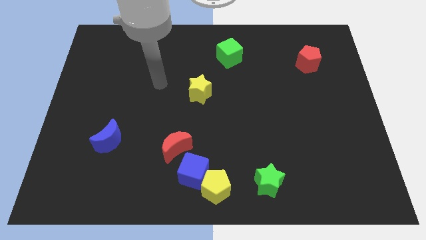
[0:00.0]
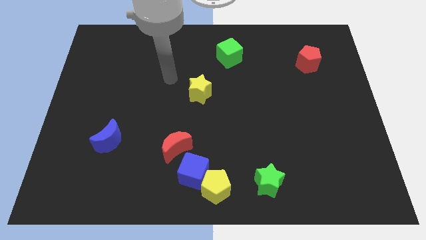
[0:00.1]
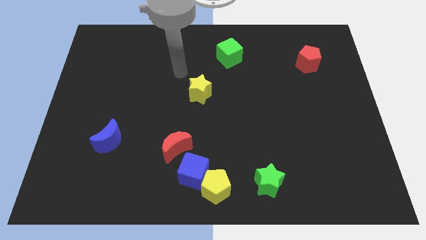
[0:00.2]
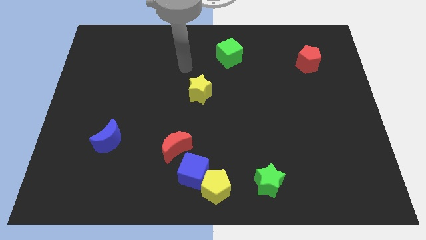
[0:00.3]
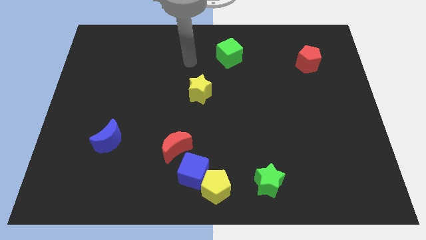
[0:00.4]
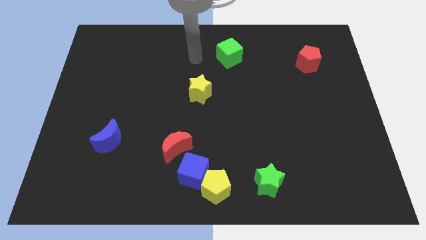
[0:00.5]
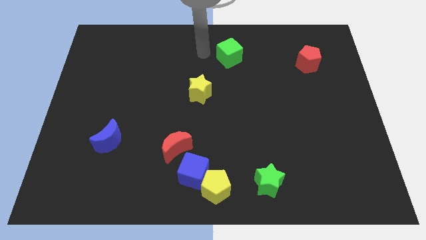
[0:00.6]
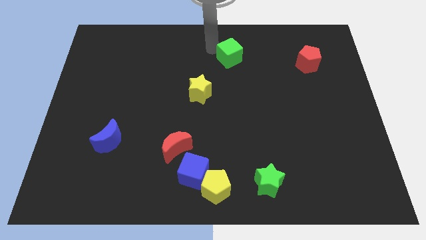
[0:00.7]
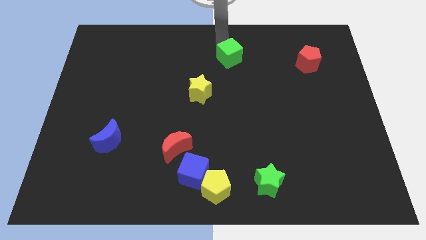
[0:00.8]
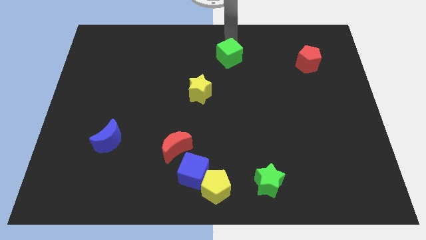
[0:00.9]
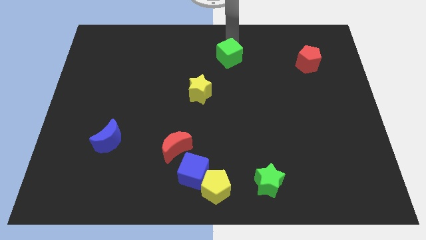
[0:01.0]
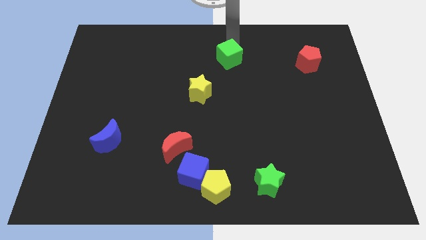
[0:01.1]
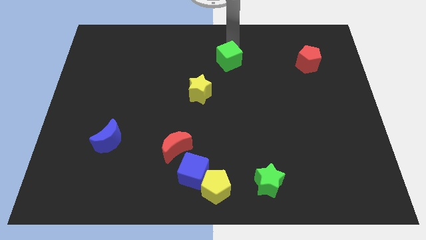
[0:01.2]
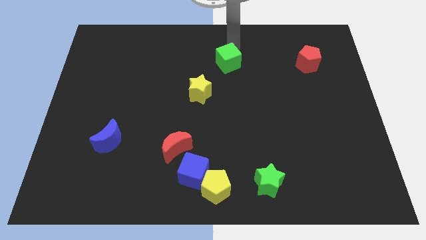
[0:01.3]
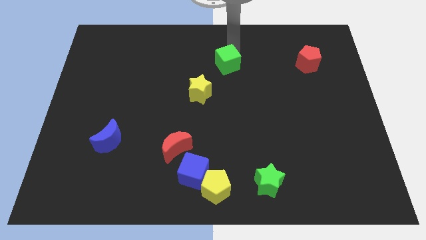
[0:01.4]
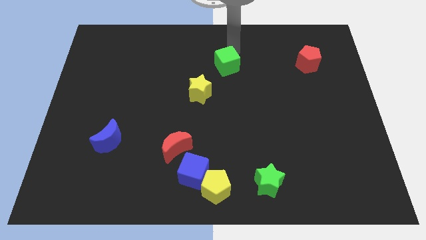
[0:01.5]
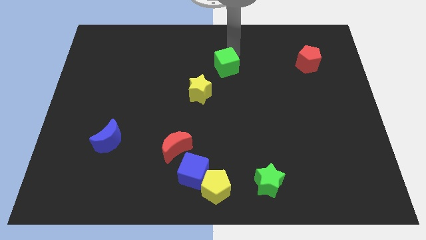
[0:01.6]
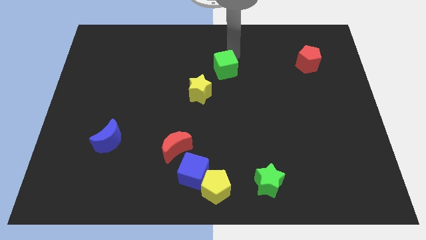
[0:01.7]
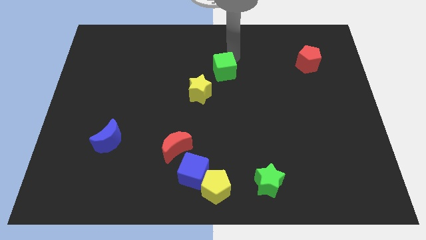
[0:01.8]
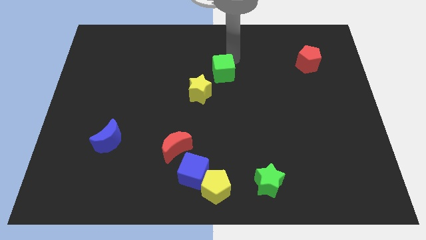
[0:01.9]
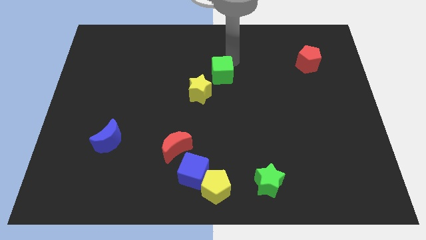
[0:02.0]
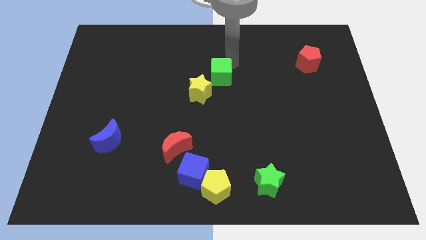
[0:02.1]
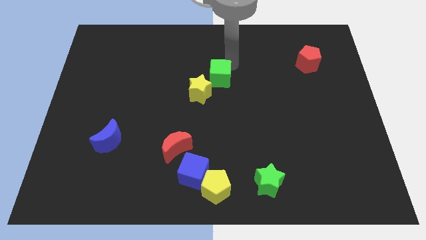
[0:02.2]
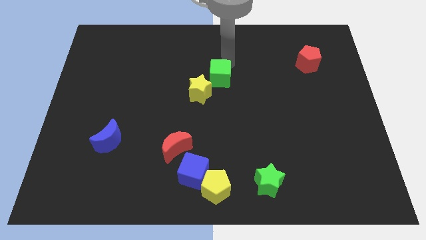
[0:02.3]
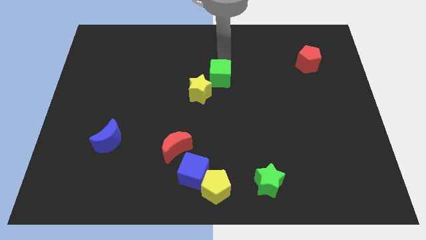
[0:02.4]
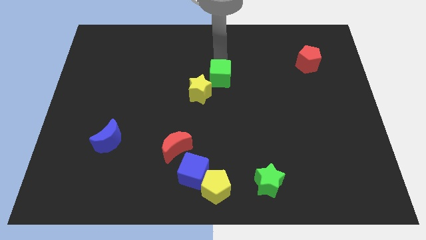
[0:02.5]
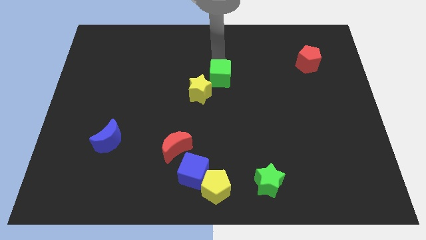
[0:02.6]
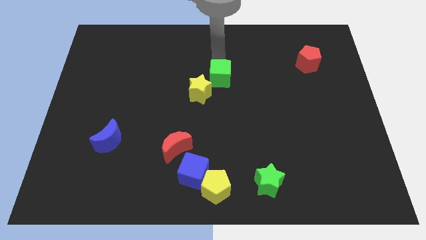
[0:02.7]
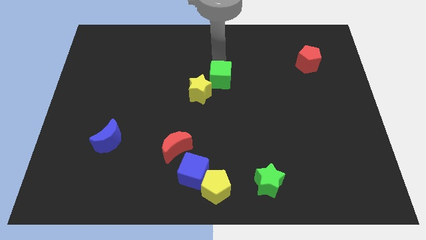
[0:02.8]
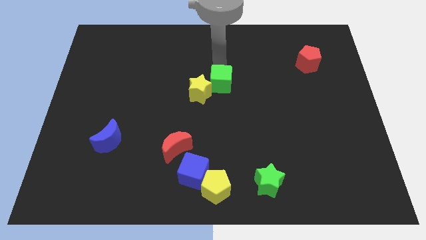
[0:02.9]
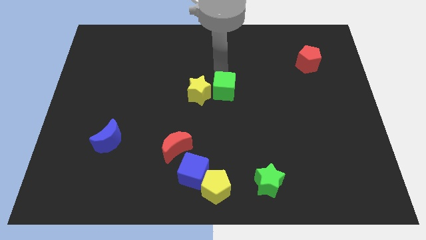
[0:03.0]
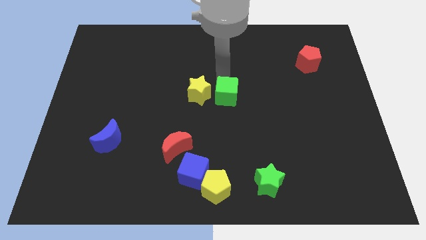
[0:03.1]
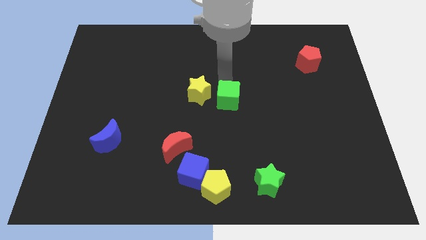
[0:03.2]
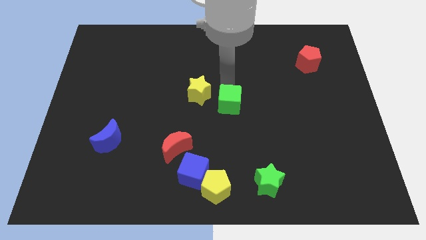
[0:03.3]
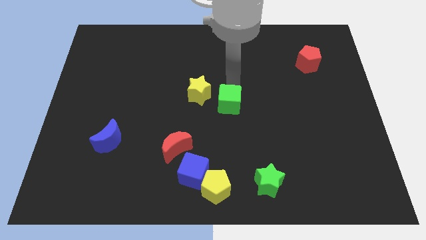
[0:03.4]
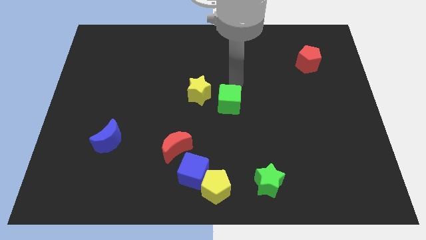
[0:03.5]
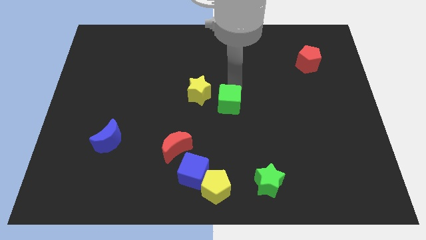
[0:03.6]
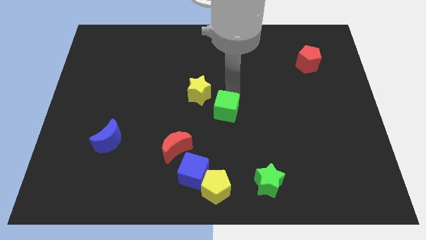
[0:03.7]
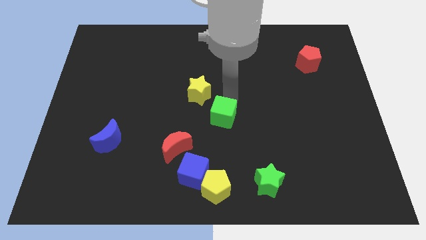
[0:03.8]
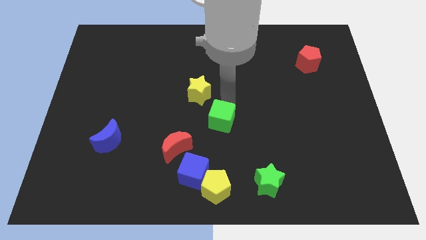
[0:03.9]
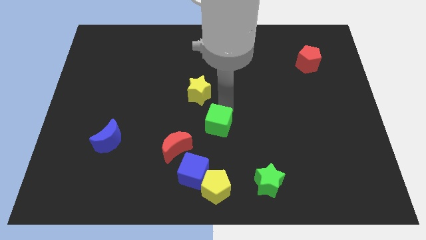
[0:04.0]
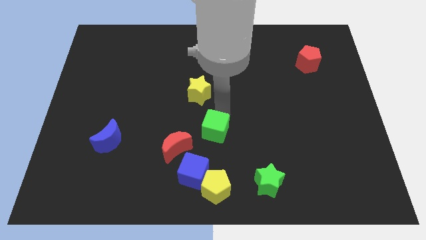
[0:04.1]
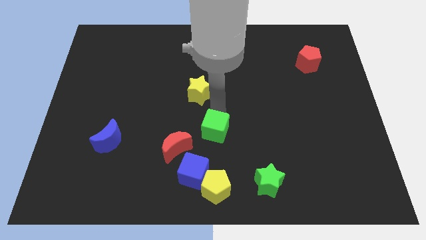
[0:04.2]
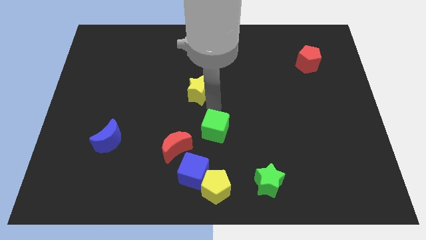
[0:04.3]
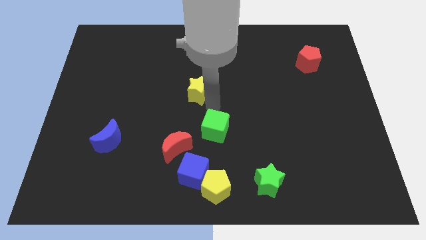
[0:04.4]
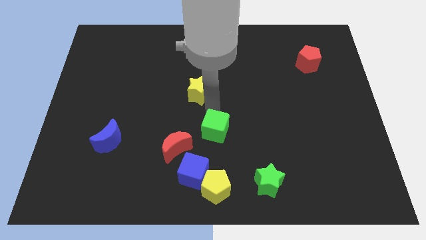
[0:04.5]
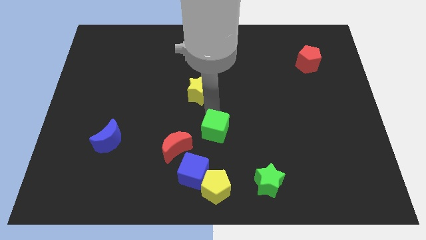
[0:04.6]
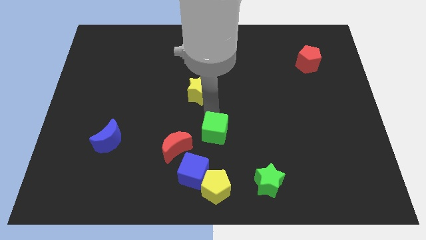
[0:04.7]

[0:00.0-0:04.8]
push the green cube diagonally up and to the right of the blue cube

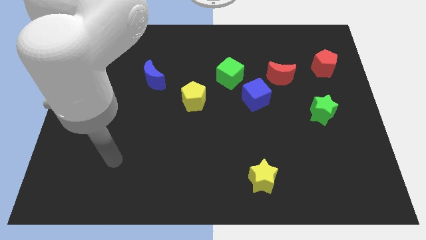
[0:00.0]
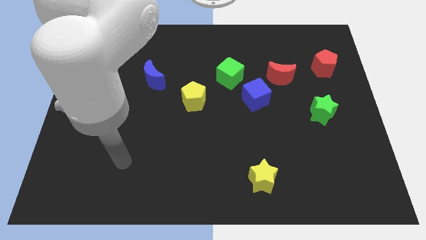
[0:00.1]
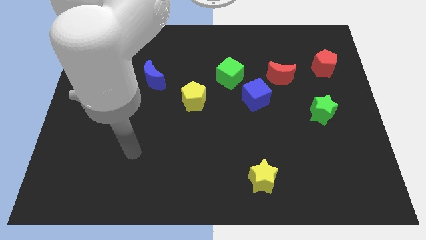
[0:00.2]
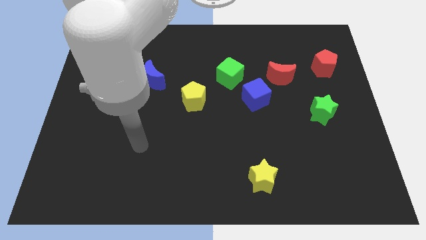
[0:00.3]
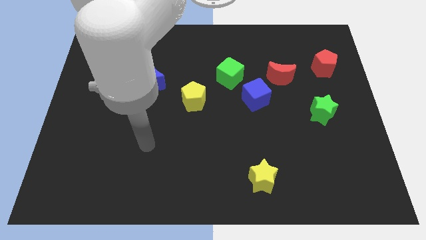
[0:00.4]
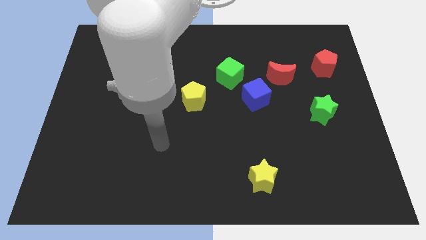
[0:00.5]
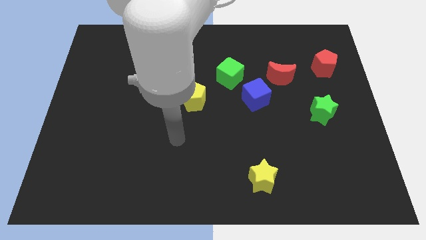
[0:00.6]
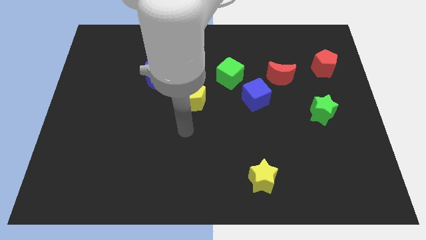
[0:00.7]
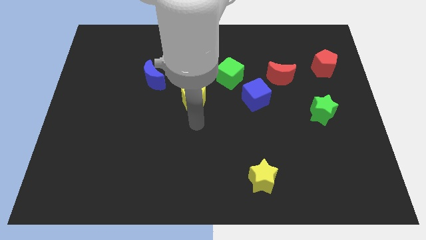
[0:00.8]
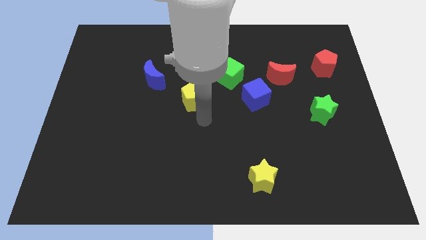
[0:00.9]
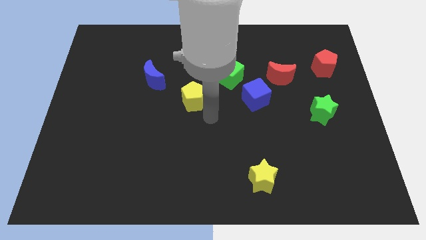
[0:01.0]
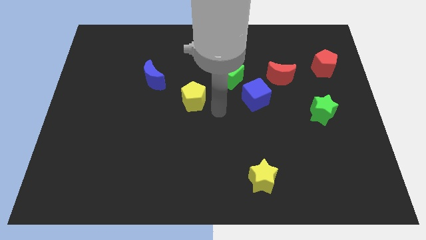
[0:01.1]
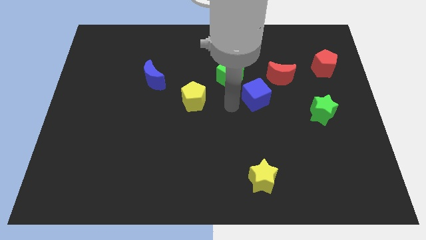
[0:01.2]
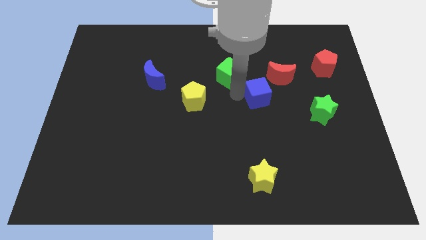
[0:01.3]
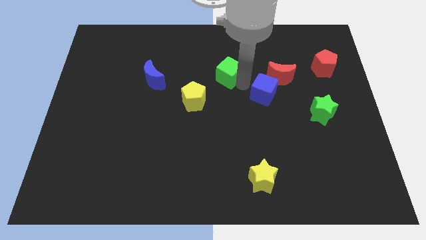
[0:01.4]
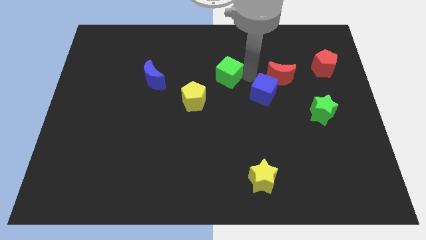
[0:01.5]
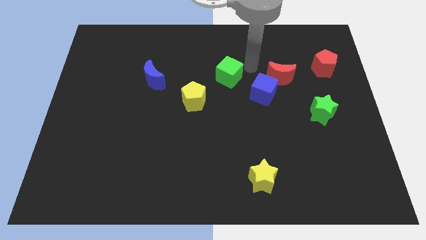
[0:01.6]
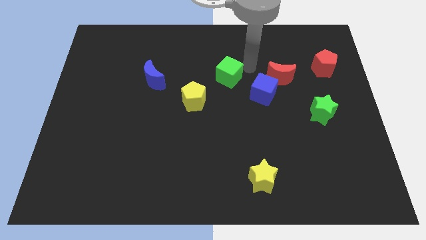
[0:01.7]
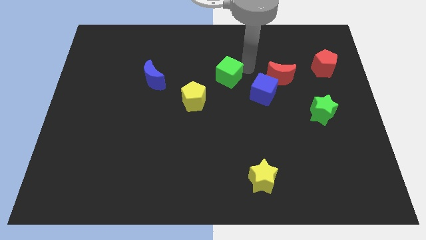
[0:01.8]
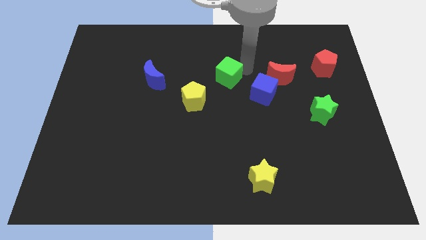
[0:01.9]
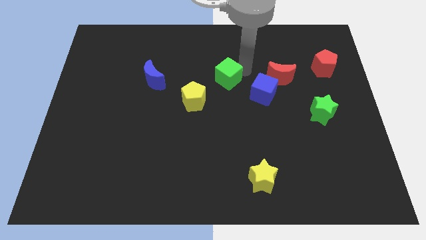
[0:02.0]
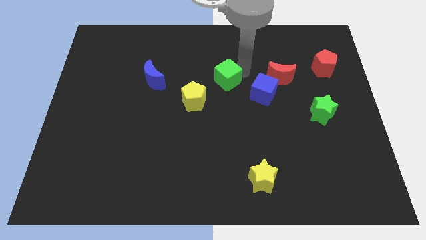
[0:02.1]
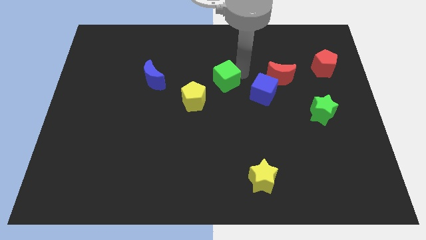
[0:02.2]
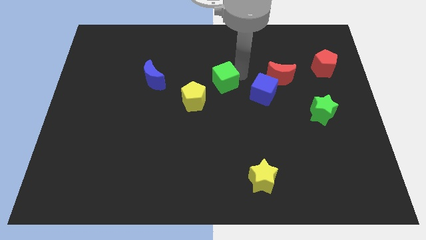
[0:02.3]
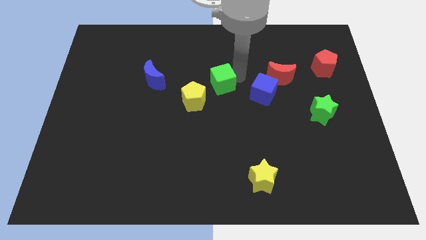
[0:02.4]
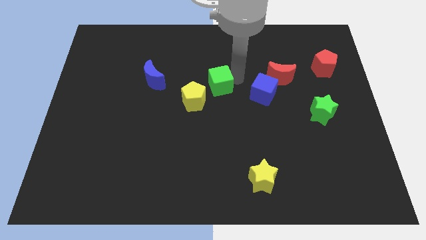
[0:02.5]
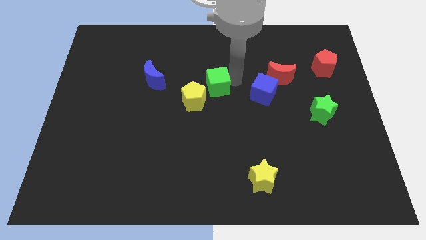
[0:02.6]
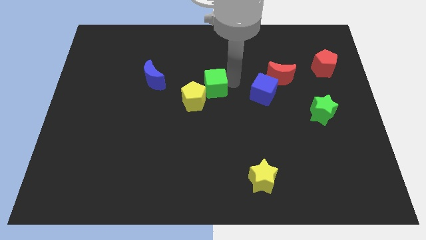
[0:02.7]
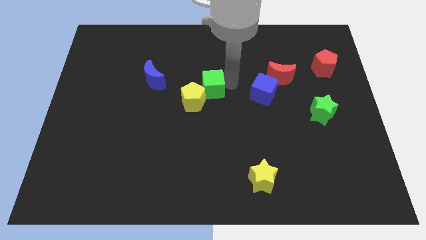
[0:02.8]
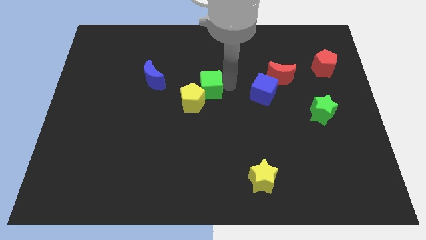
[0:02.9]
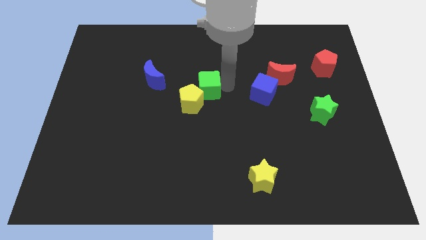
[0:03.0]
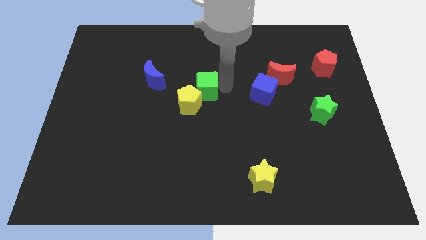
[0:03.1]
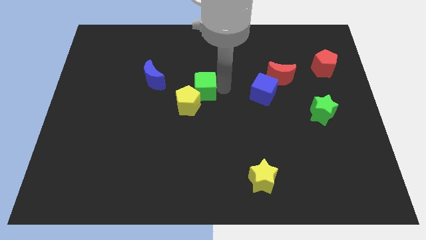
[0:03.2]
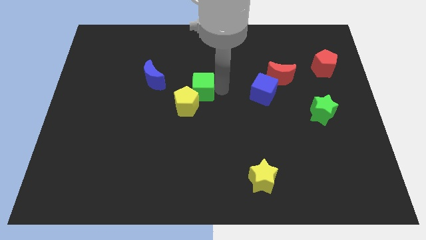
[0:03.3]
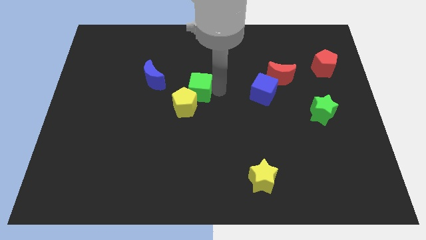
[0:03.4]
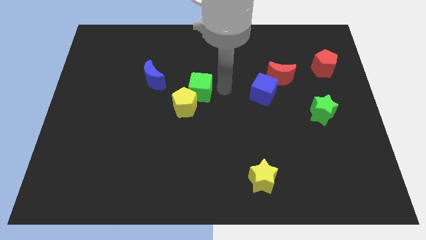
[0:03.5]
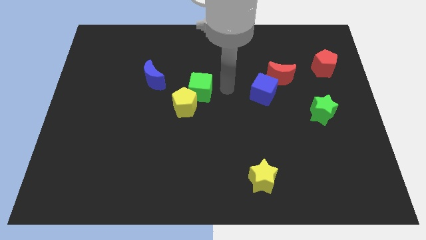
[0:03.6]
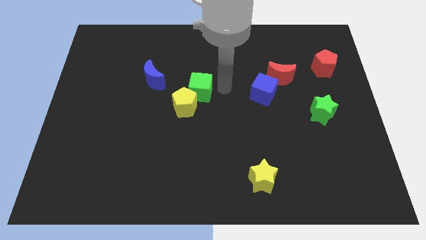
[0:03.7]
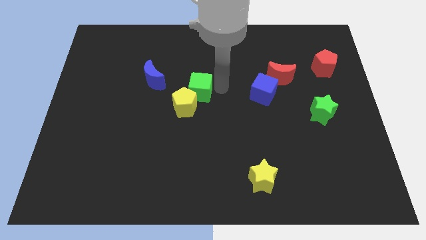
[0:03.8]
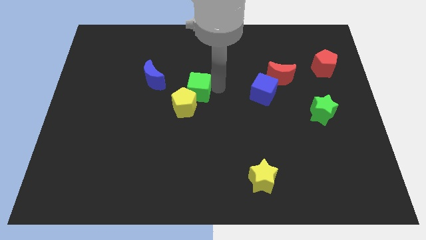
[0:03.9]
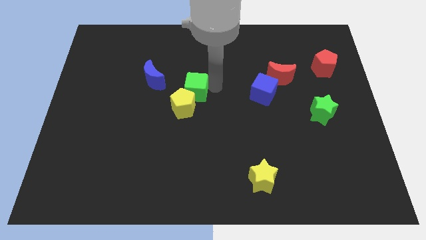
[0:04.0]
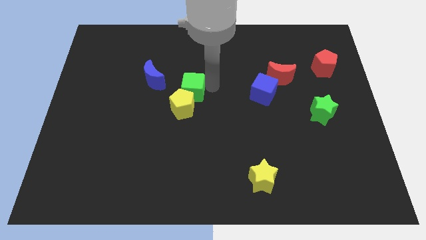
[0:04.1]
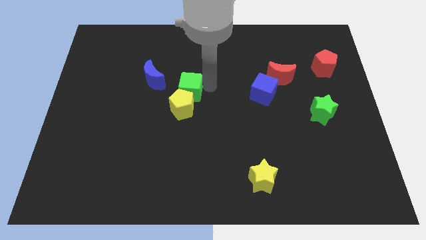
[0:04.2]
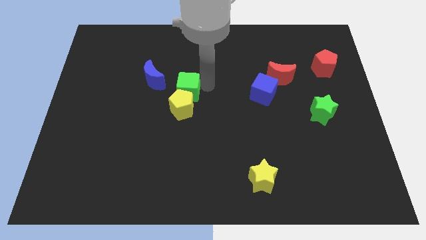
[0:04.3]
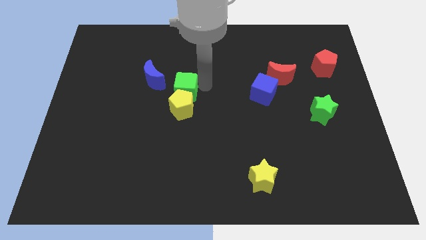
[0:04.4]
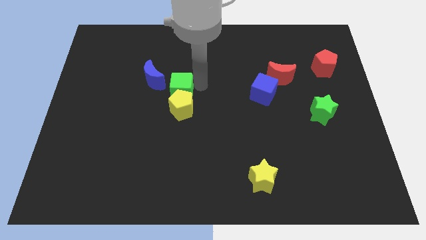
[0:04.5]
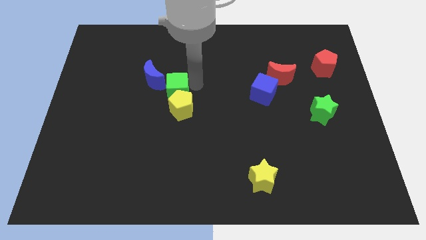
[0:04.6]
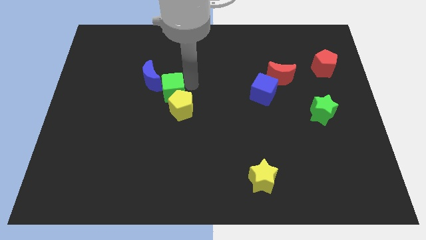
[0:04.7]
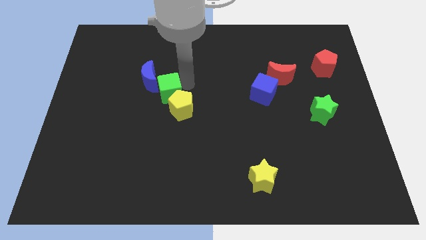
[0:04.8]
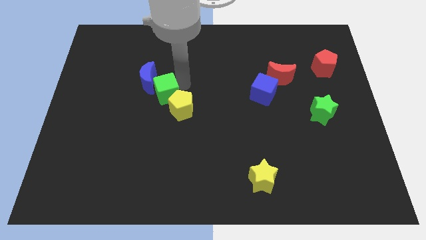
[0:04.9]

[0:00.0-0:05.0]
slide the green cube left of the yellow pentagon
